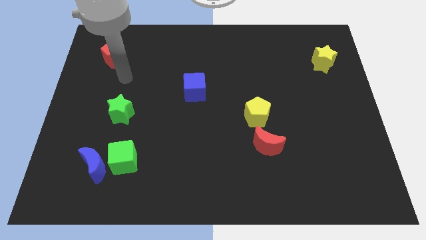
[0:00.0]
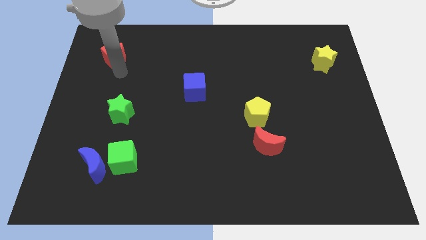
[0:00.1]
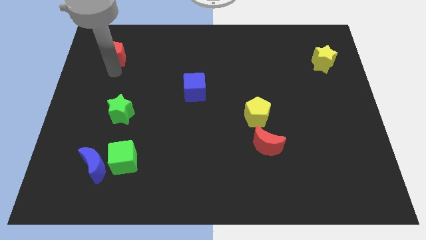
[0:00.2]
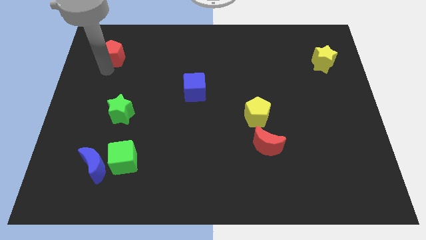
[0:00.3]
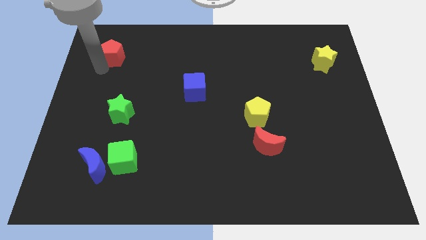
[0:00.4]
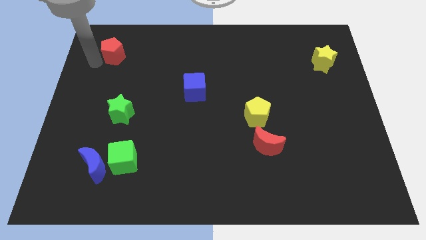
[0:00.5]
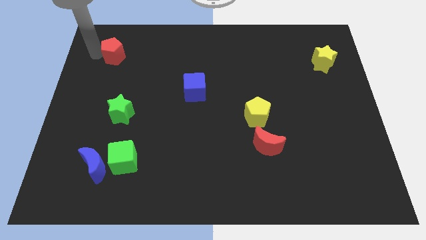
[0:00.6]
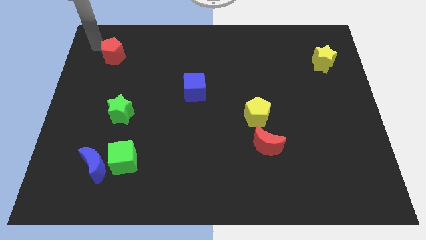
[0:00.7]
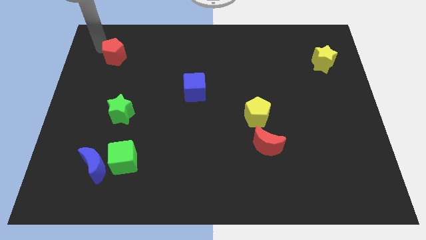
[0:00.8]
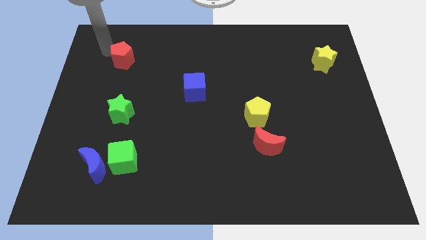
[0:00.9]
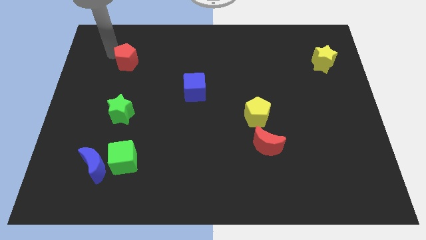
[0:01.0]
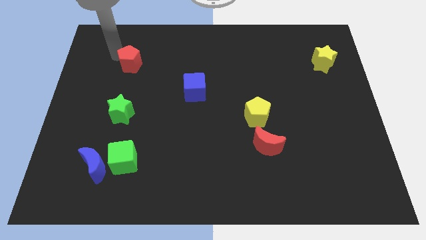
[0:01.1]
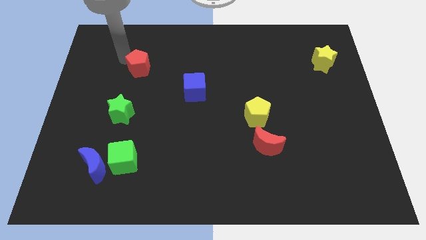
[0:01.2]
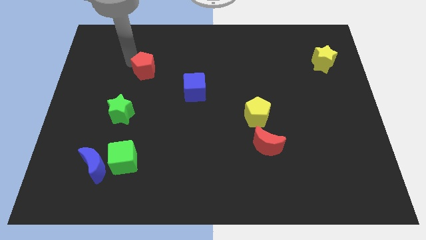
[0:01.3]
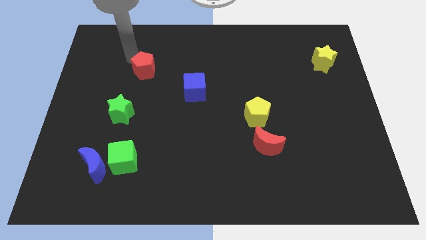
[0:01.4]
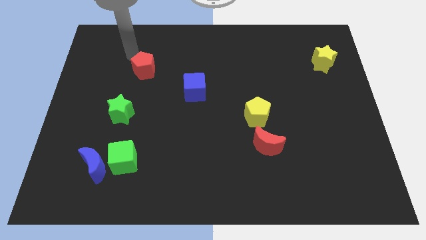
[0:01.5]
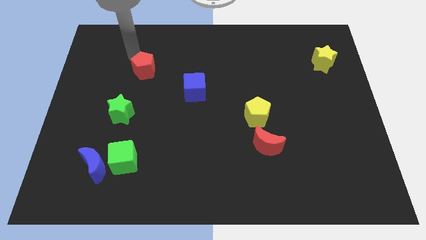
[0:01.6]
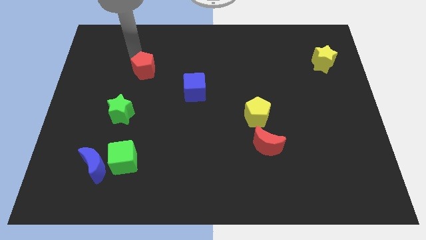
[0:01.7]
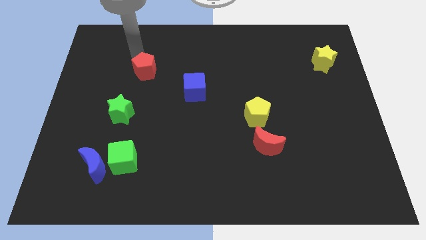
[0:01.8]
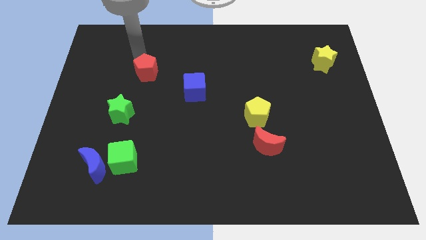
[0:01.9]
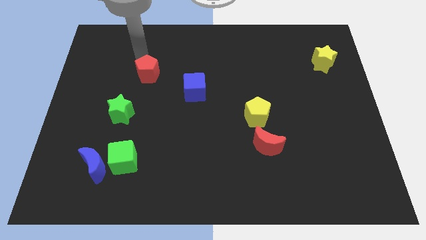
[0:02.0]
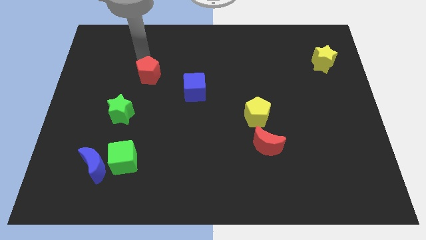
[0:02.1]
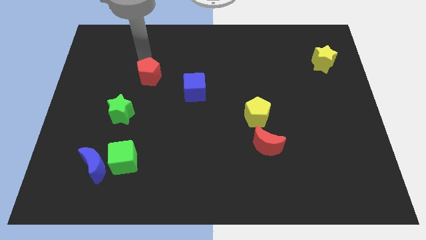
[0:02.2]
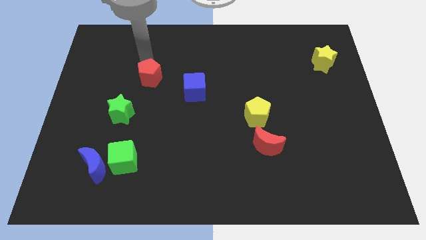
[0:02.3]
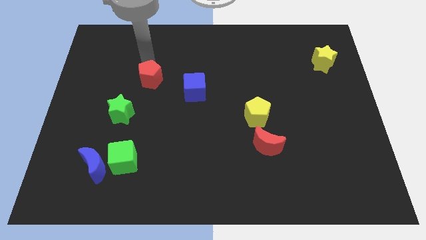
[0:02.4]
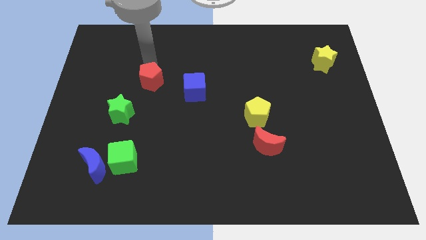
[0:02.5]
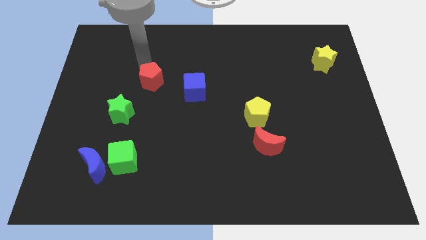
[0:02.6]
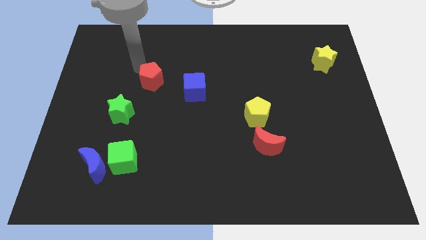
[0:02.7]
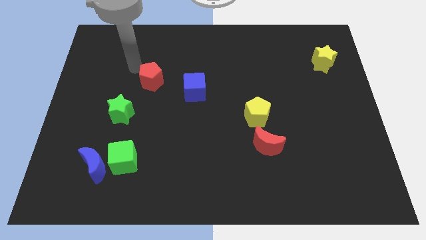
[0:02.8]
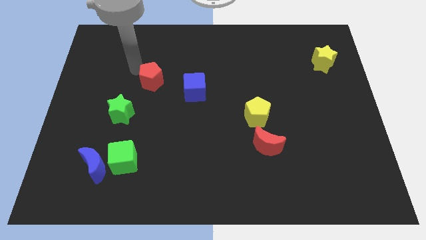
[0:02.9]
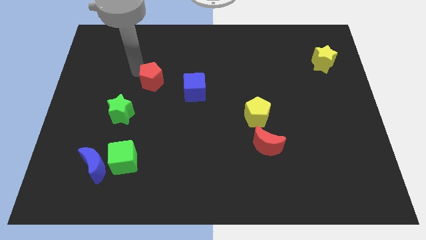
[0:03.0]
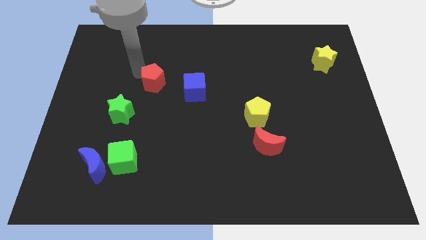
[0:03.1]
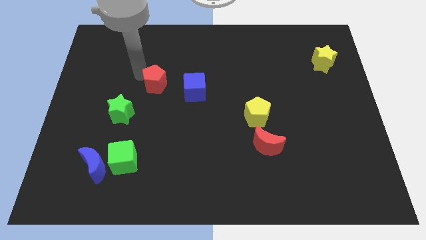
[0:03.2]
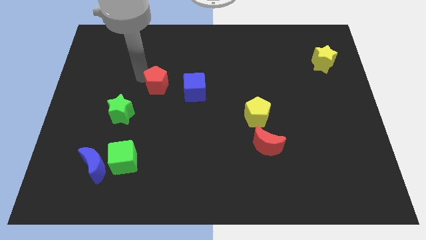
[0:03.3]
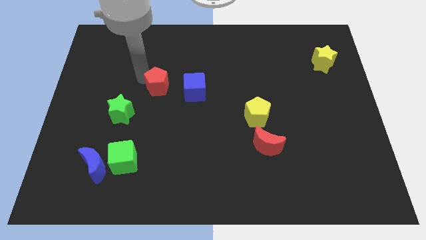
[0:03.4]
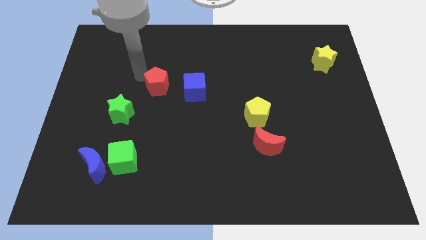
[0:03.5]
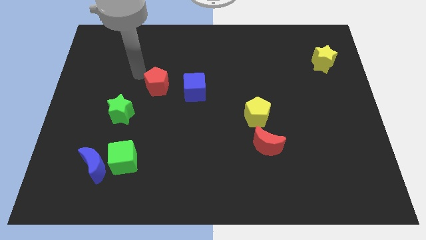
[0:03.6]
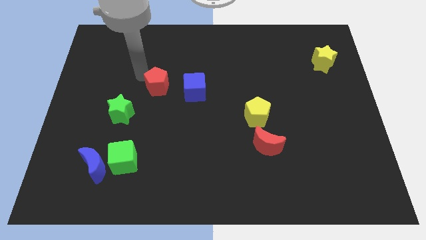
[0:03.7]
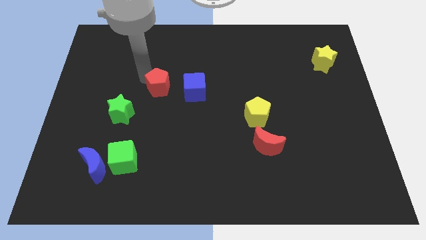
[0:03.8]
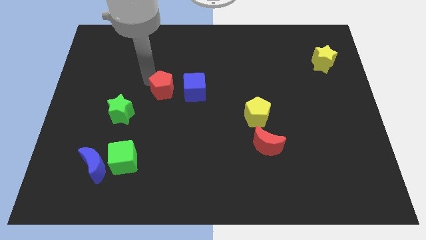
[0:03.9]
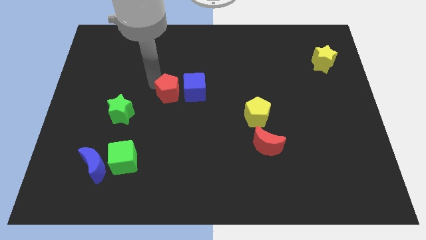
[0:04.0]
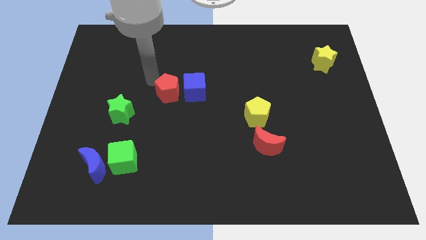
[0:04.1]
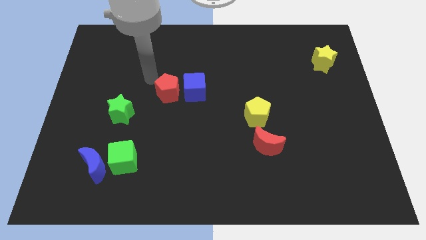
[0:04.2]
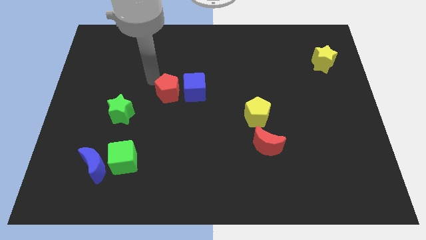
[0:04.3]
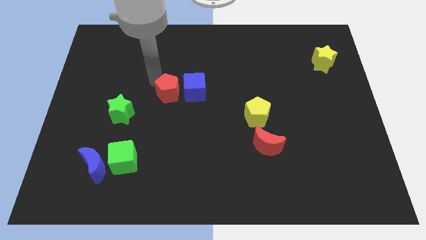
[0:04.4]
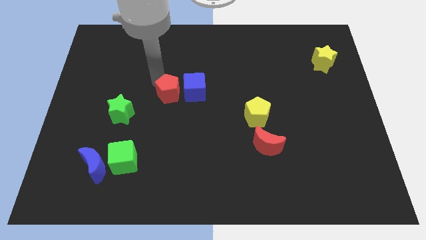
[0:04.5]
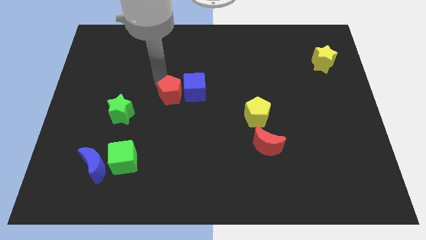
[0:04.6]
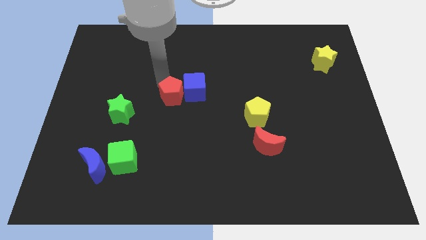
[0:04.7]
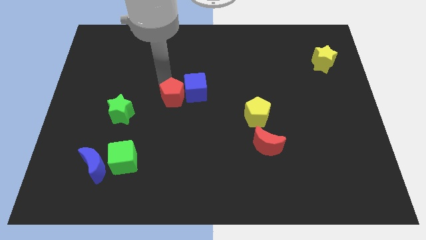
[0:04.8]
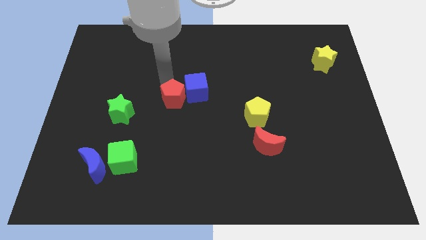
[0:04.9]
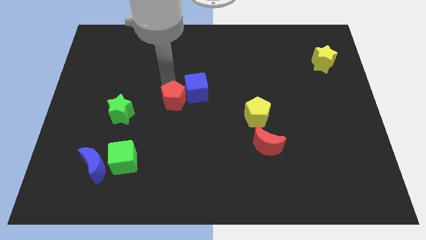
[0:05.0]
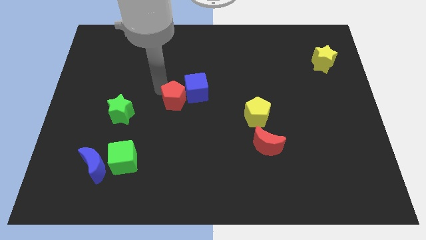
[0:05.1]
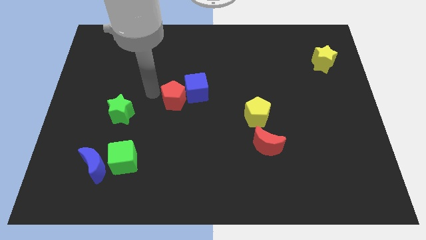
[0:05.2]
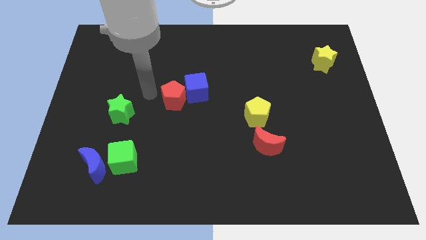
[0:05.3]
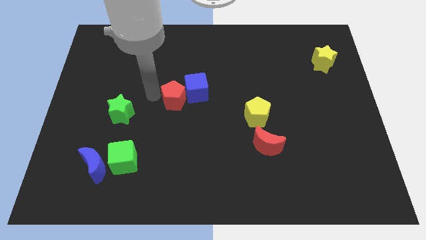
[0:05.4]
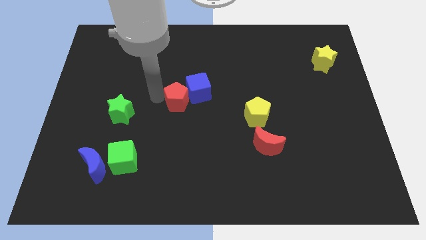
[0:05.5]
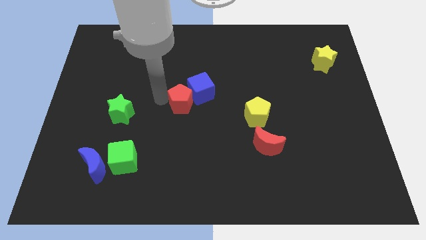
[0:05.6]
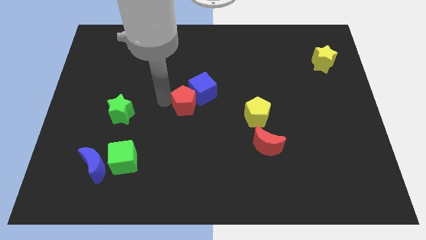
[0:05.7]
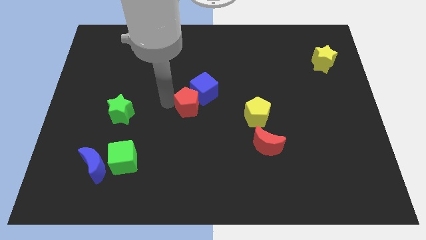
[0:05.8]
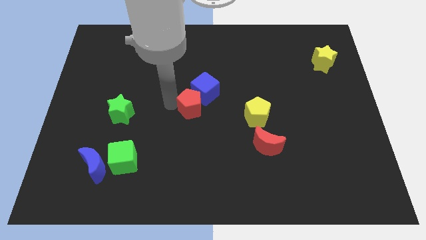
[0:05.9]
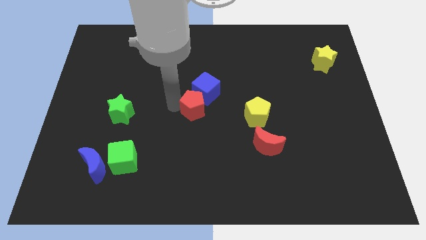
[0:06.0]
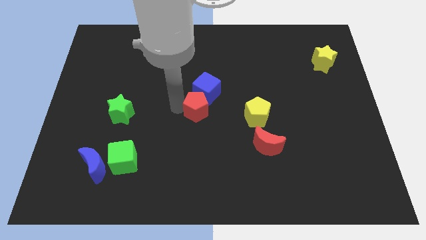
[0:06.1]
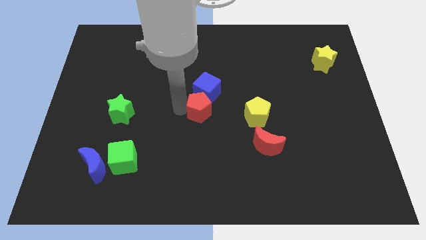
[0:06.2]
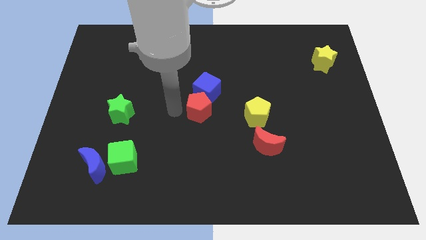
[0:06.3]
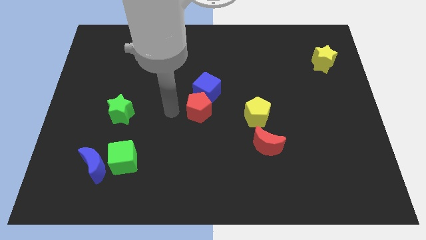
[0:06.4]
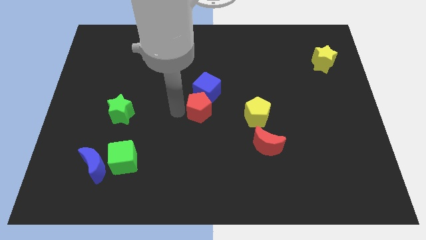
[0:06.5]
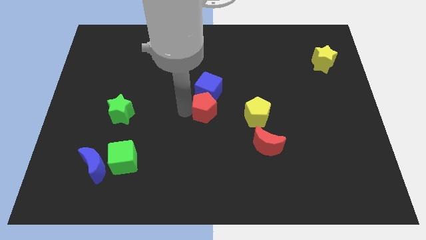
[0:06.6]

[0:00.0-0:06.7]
put the red pentagon diagonally down and to the right of the blue cube
